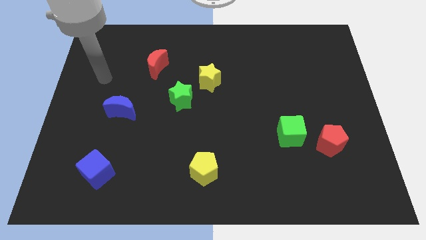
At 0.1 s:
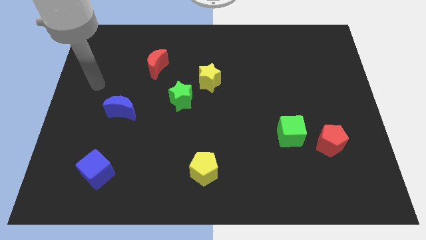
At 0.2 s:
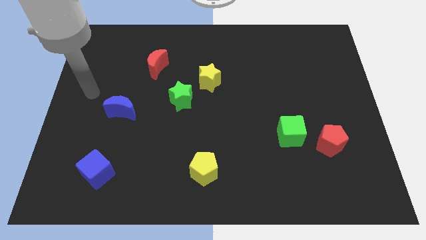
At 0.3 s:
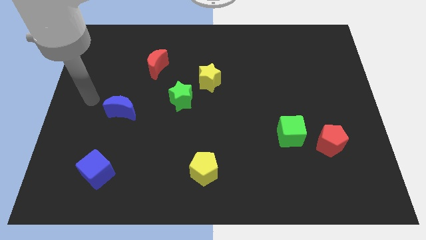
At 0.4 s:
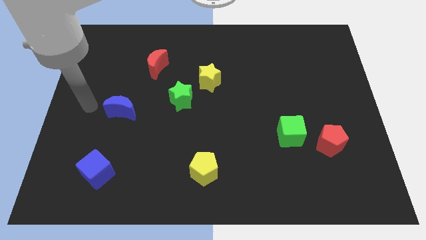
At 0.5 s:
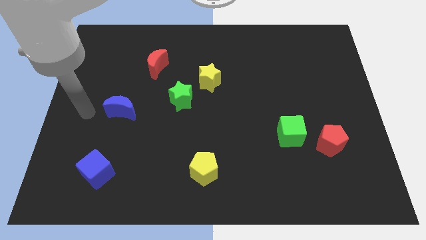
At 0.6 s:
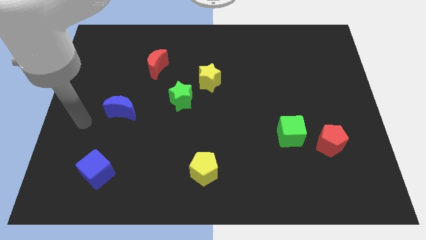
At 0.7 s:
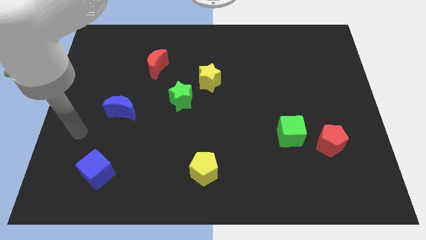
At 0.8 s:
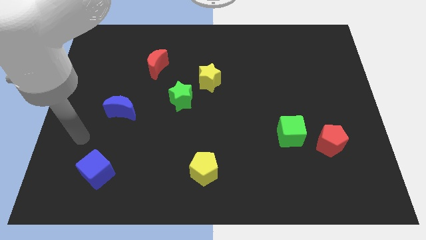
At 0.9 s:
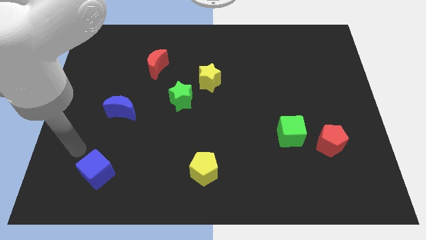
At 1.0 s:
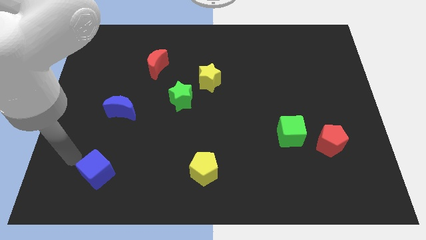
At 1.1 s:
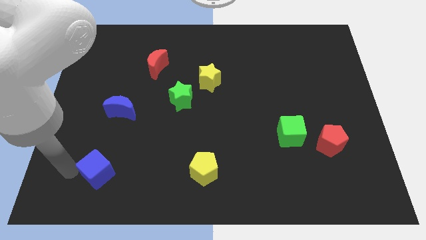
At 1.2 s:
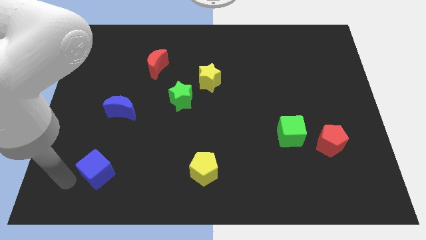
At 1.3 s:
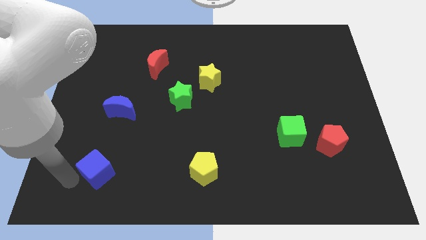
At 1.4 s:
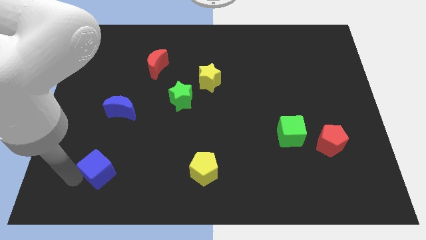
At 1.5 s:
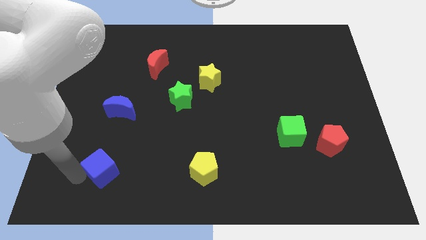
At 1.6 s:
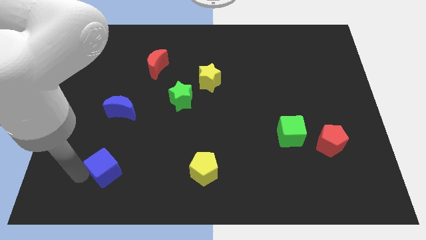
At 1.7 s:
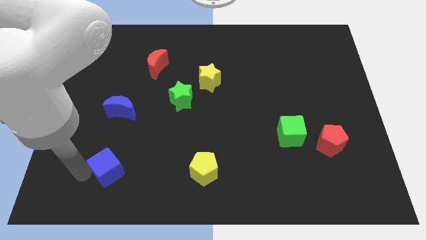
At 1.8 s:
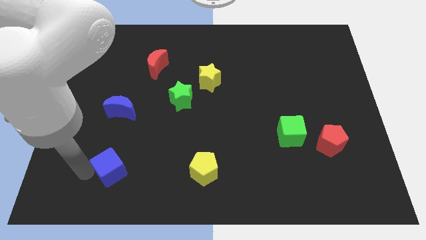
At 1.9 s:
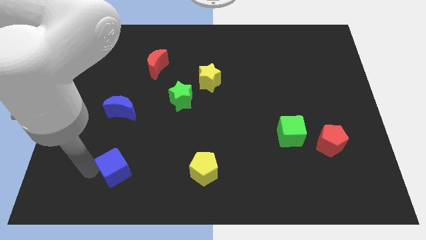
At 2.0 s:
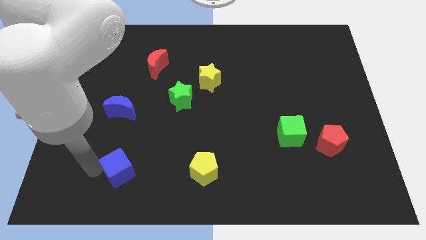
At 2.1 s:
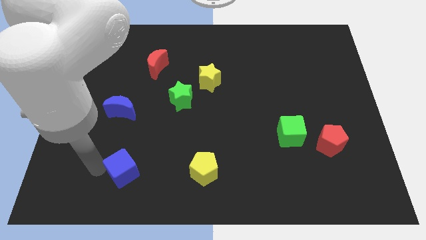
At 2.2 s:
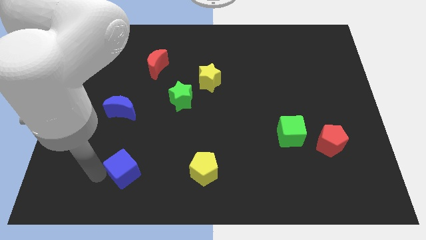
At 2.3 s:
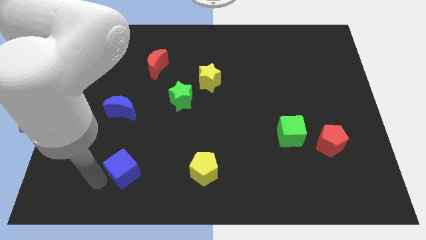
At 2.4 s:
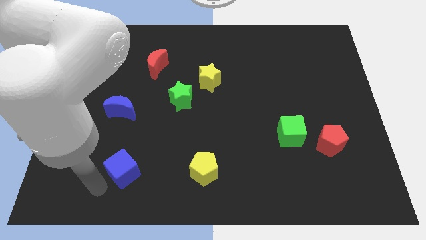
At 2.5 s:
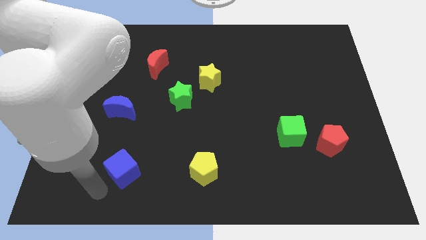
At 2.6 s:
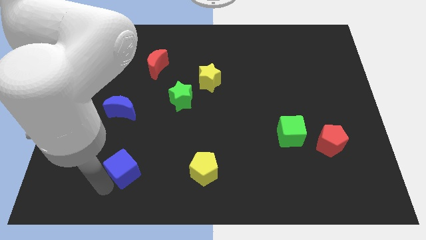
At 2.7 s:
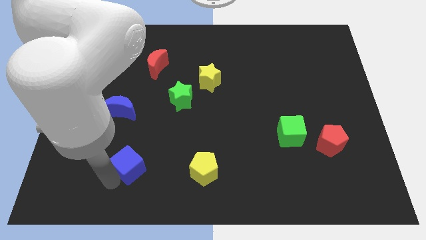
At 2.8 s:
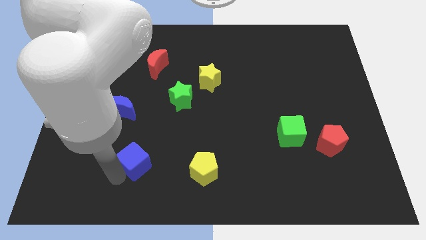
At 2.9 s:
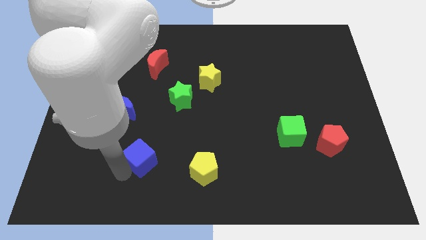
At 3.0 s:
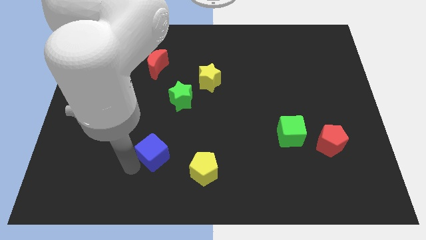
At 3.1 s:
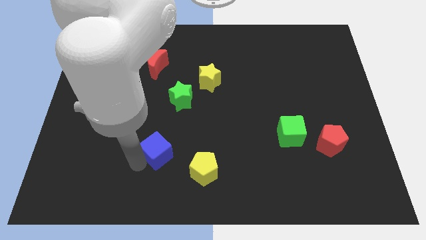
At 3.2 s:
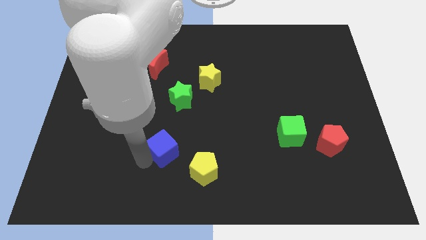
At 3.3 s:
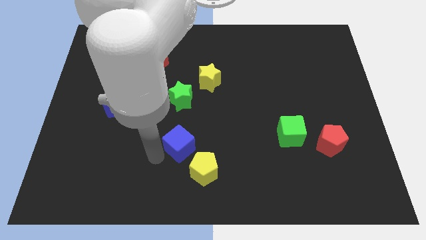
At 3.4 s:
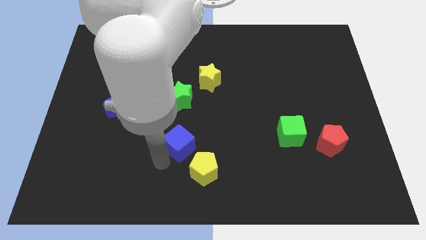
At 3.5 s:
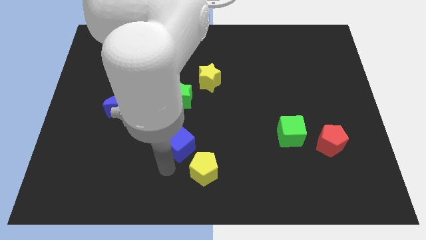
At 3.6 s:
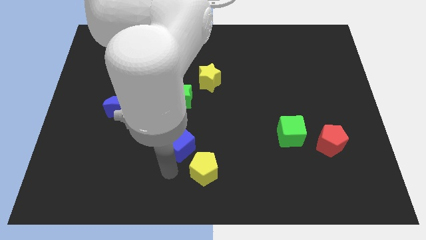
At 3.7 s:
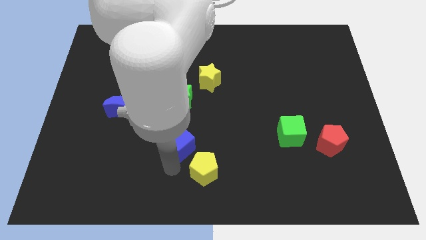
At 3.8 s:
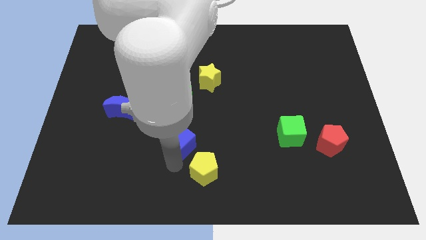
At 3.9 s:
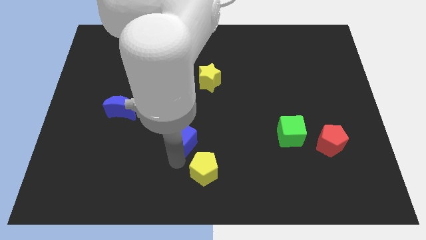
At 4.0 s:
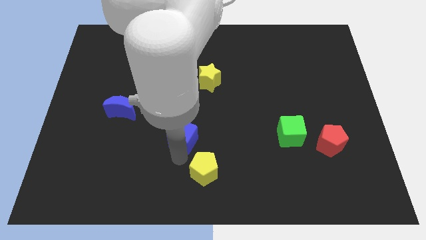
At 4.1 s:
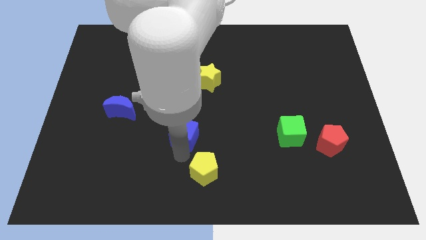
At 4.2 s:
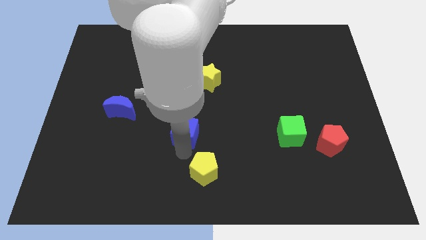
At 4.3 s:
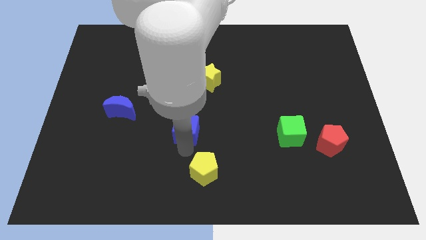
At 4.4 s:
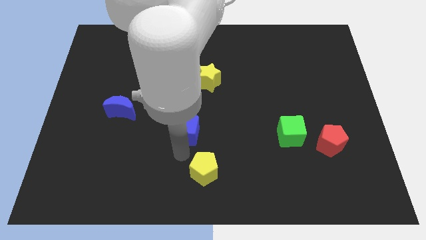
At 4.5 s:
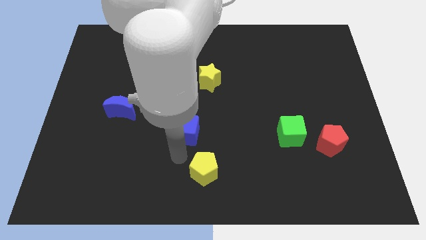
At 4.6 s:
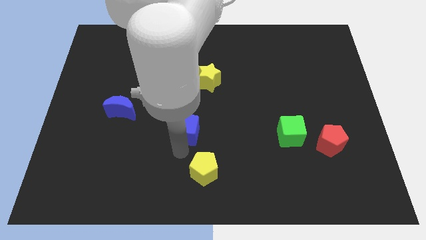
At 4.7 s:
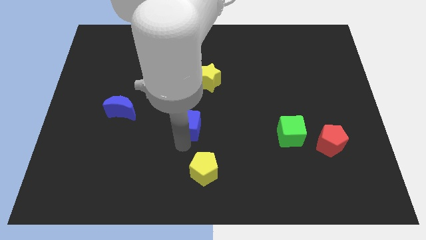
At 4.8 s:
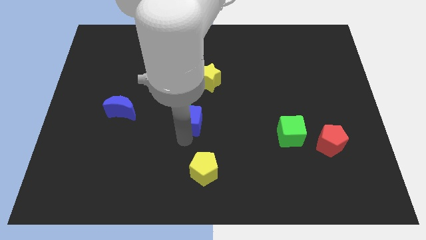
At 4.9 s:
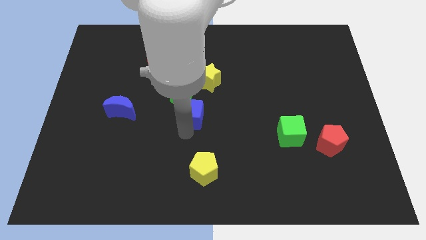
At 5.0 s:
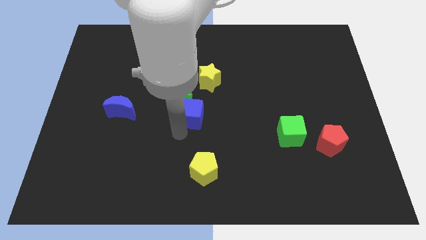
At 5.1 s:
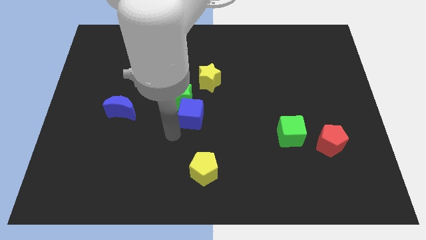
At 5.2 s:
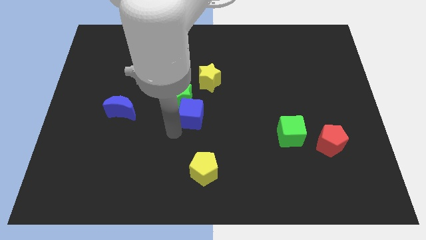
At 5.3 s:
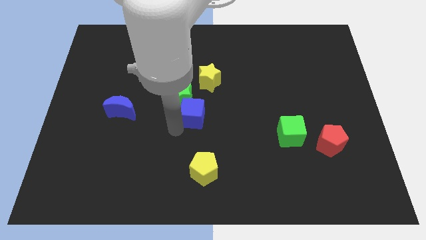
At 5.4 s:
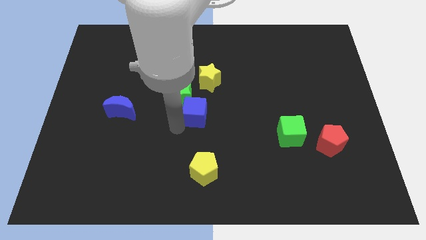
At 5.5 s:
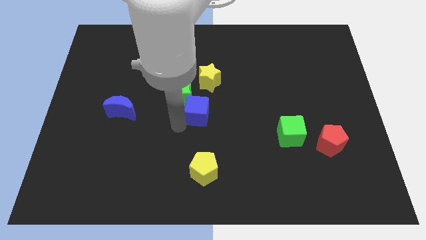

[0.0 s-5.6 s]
move the blue cube right of the green star

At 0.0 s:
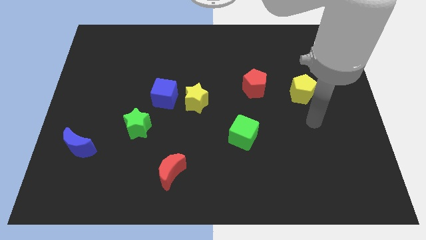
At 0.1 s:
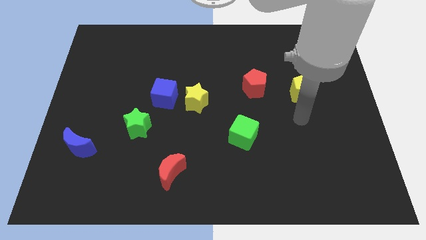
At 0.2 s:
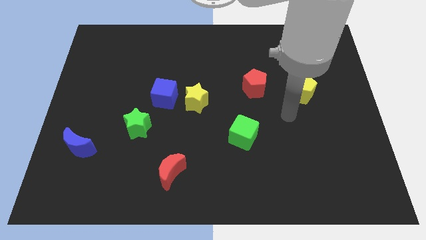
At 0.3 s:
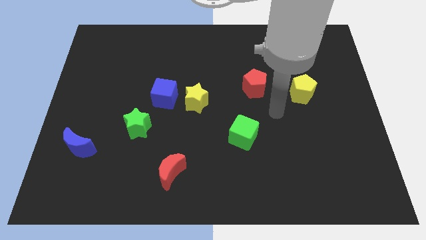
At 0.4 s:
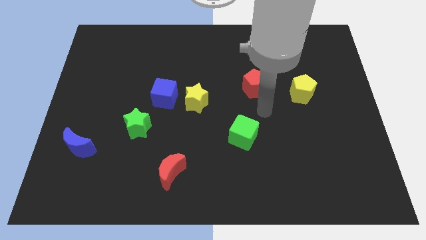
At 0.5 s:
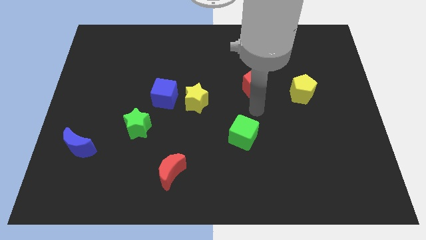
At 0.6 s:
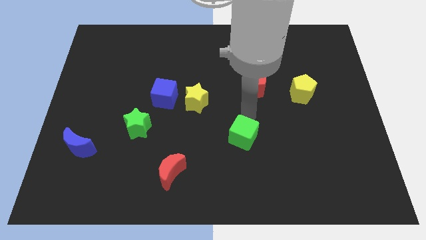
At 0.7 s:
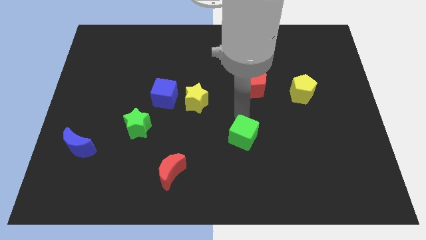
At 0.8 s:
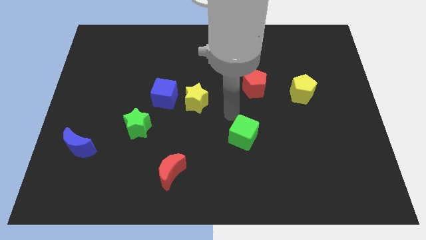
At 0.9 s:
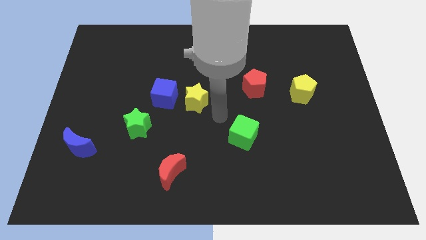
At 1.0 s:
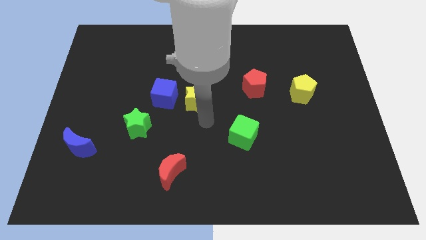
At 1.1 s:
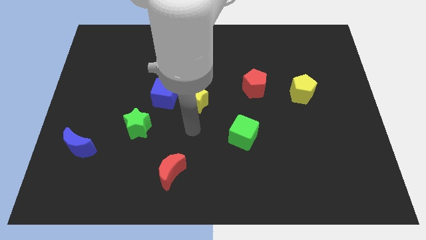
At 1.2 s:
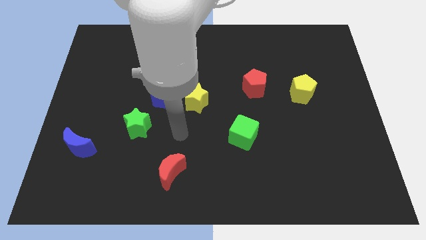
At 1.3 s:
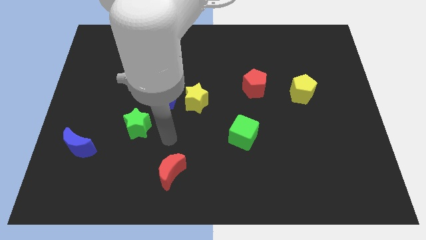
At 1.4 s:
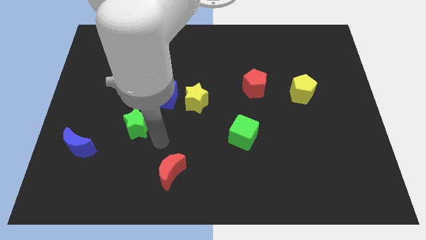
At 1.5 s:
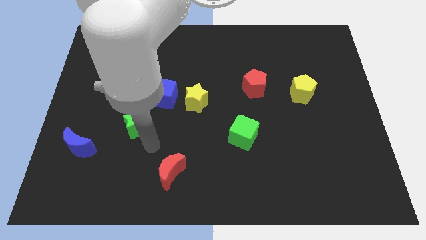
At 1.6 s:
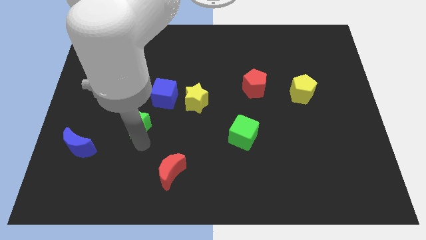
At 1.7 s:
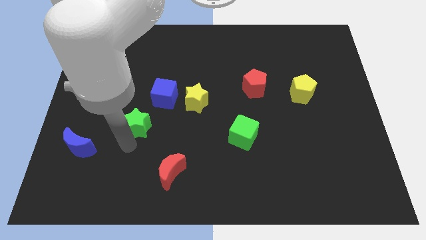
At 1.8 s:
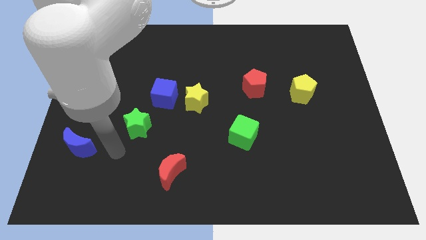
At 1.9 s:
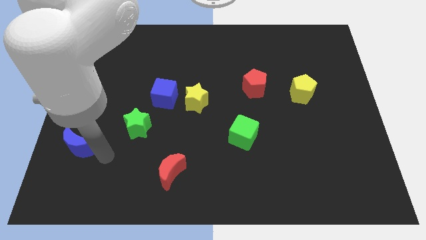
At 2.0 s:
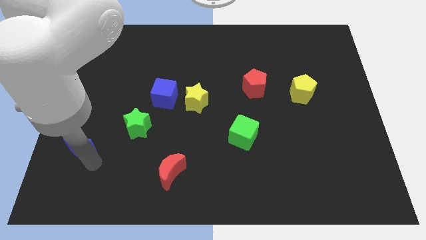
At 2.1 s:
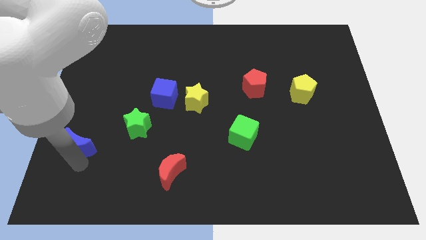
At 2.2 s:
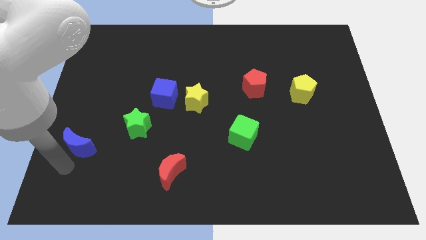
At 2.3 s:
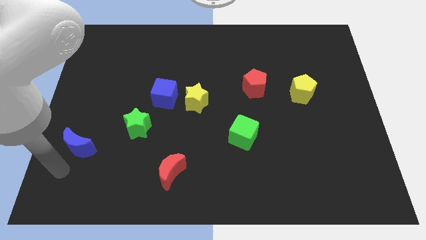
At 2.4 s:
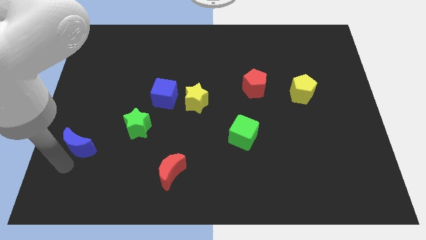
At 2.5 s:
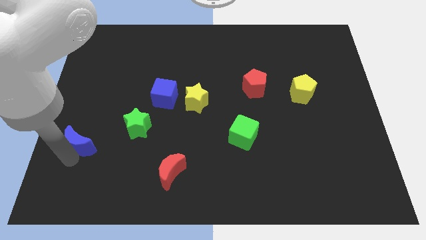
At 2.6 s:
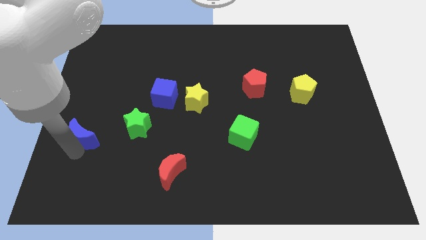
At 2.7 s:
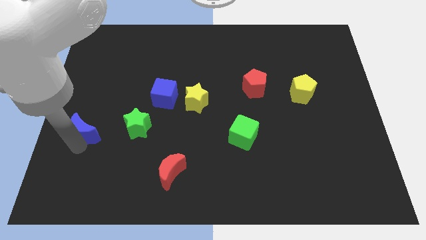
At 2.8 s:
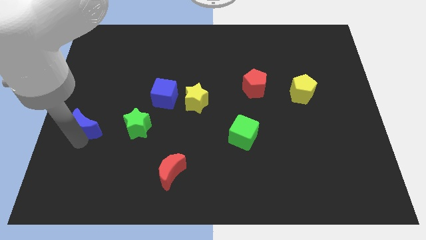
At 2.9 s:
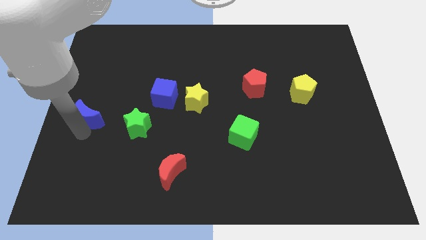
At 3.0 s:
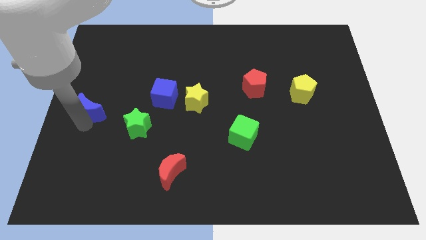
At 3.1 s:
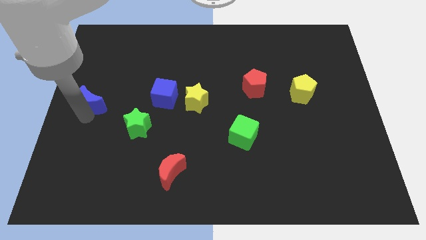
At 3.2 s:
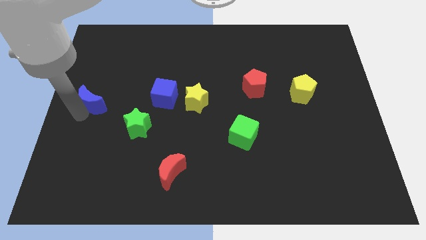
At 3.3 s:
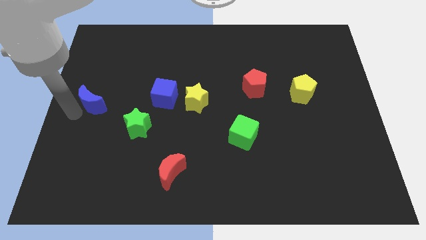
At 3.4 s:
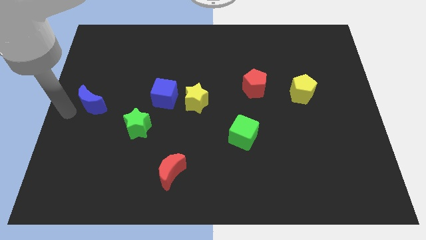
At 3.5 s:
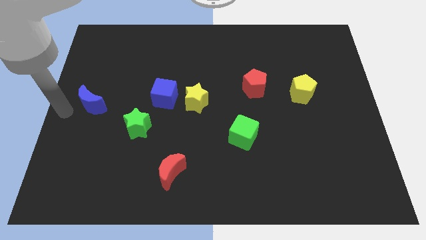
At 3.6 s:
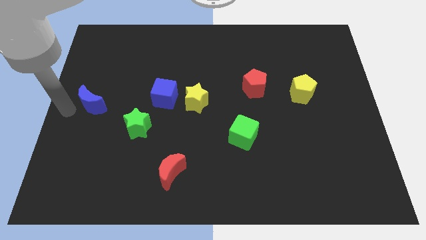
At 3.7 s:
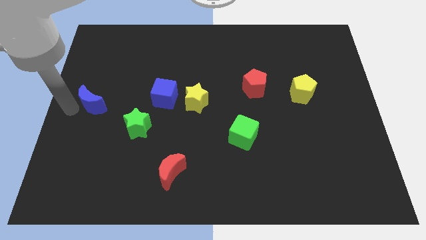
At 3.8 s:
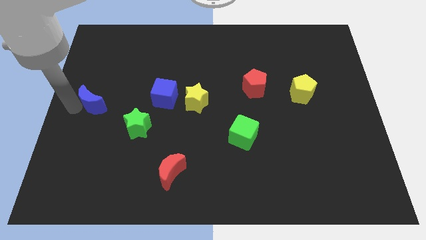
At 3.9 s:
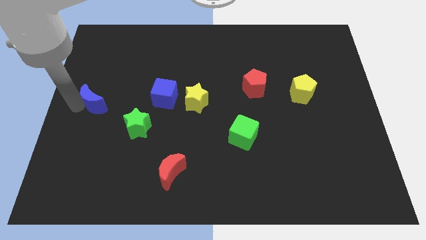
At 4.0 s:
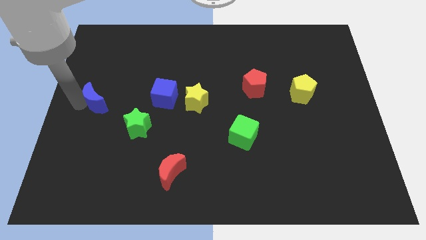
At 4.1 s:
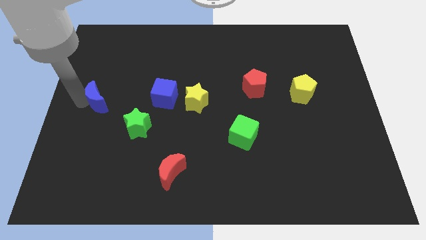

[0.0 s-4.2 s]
slide the blue moon left of the blue cube
